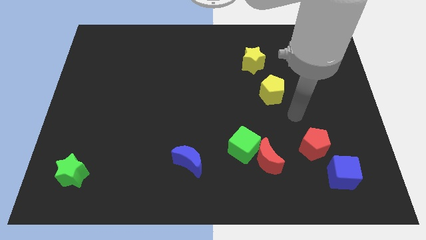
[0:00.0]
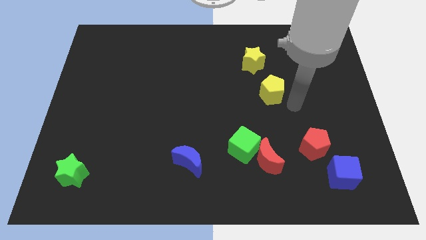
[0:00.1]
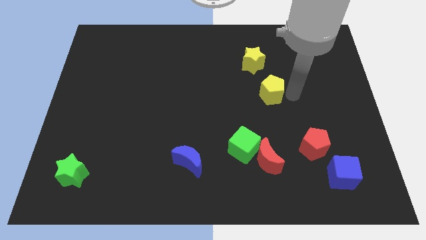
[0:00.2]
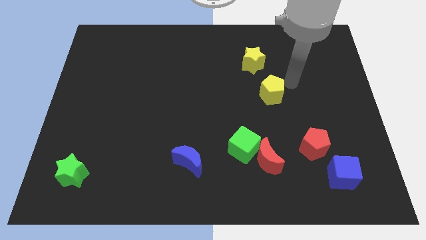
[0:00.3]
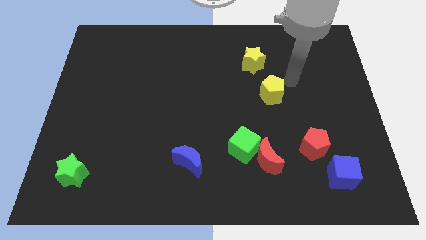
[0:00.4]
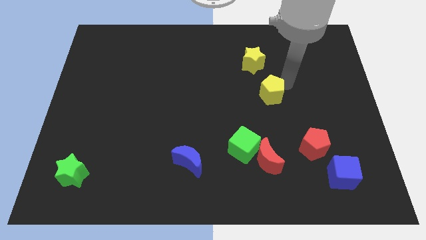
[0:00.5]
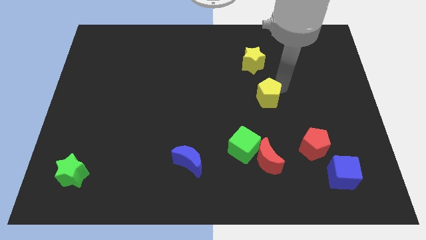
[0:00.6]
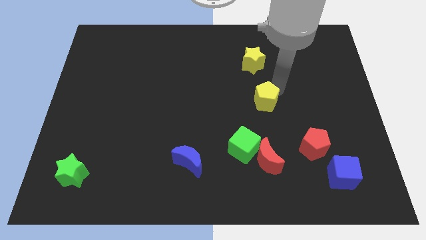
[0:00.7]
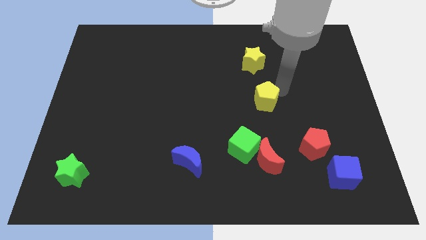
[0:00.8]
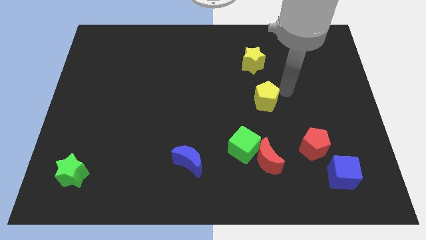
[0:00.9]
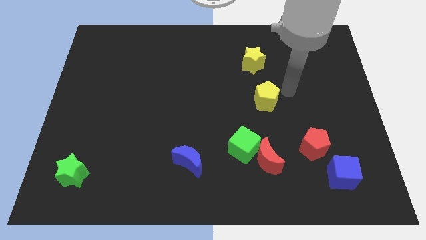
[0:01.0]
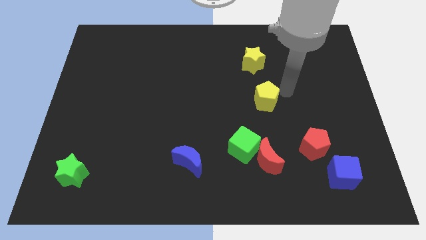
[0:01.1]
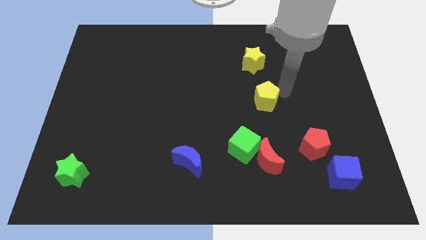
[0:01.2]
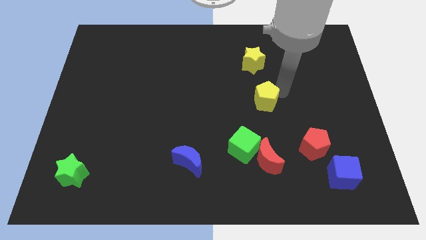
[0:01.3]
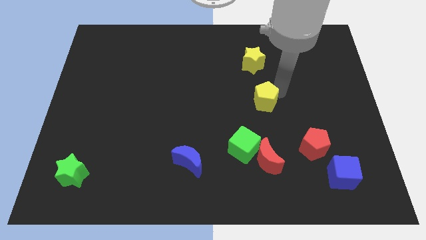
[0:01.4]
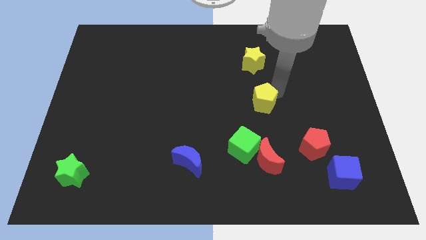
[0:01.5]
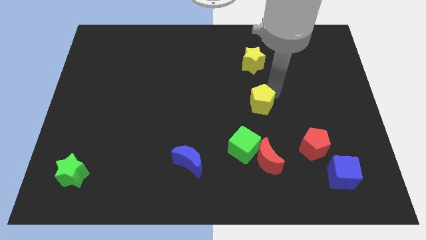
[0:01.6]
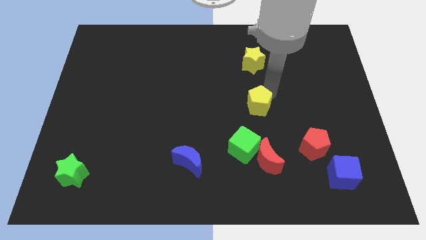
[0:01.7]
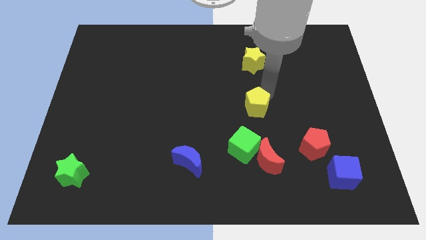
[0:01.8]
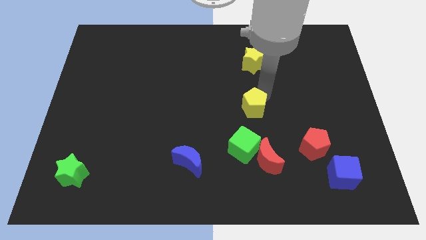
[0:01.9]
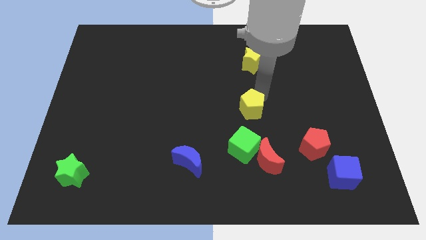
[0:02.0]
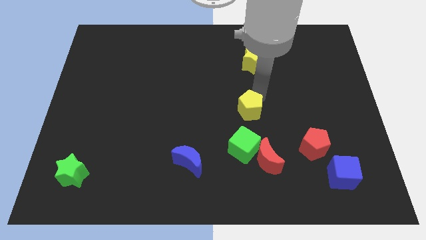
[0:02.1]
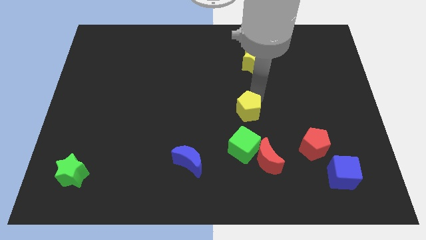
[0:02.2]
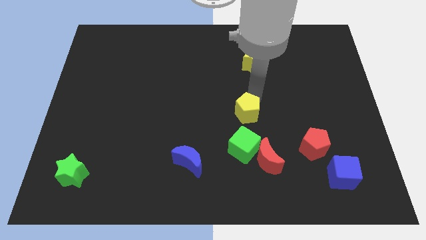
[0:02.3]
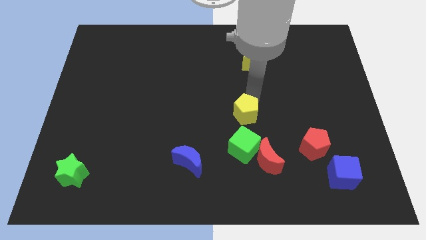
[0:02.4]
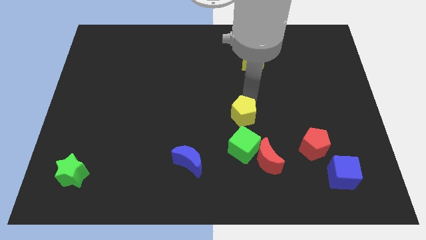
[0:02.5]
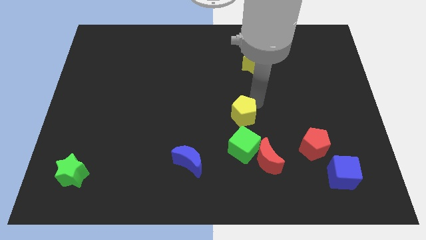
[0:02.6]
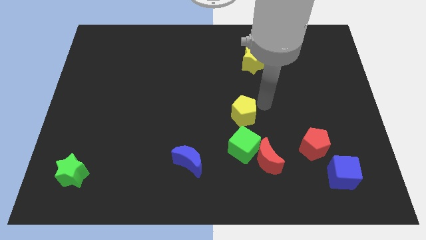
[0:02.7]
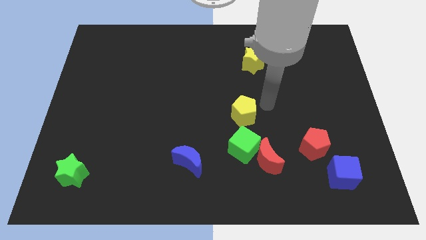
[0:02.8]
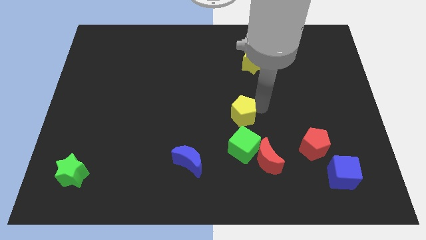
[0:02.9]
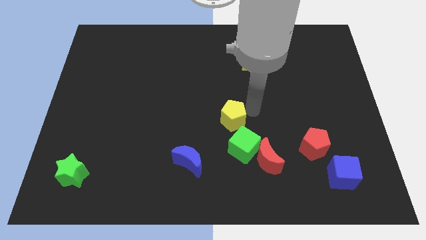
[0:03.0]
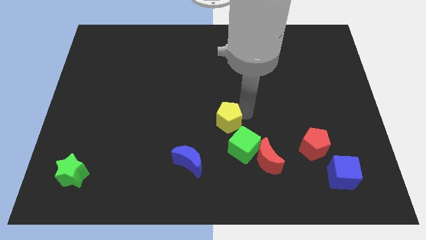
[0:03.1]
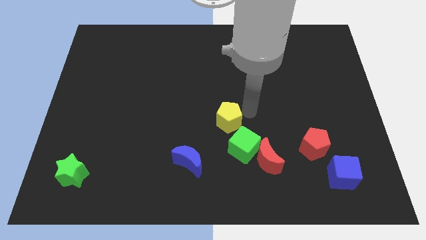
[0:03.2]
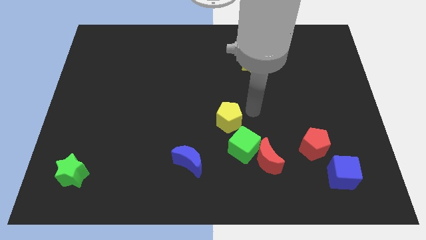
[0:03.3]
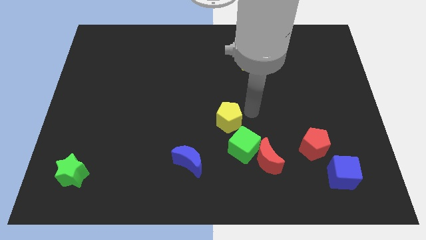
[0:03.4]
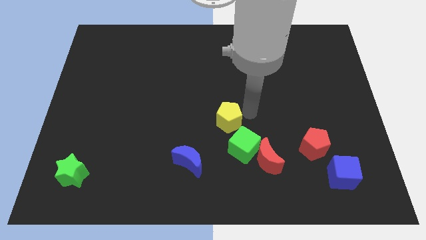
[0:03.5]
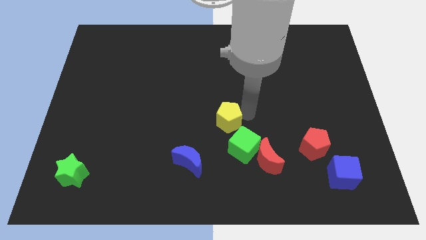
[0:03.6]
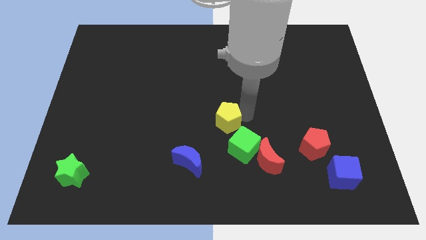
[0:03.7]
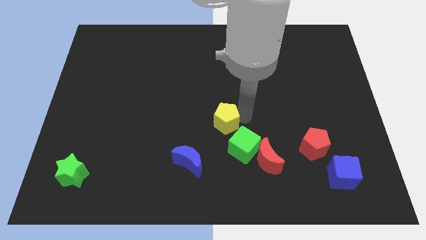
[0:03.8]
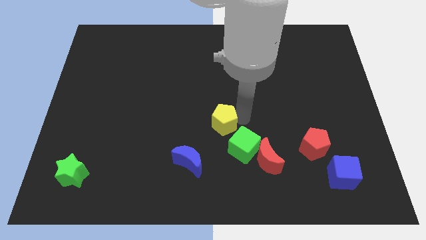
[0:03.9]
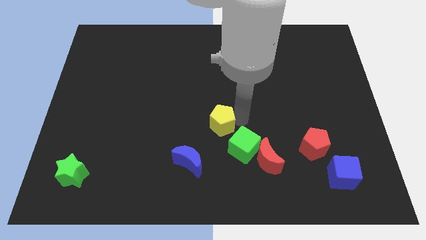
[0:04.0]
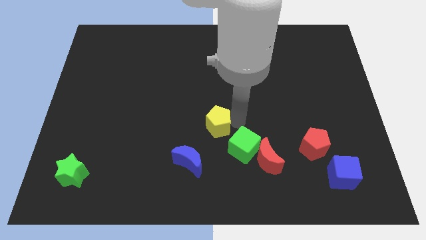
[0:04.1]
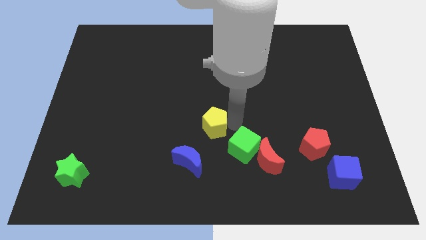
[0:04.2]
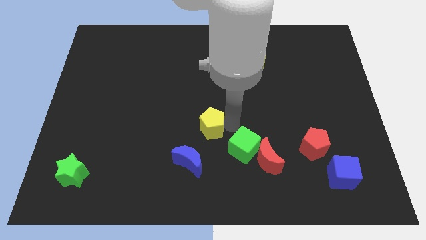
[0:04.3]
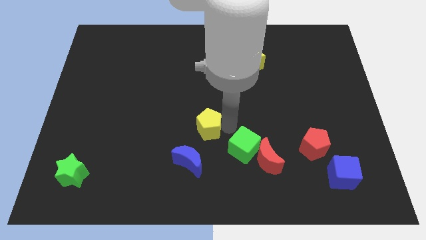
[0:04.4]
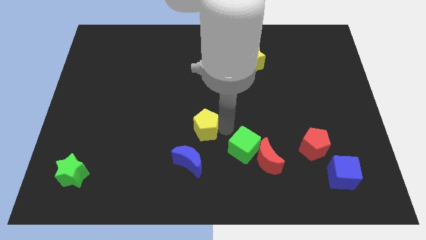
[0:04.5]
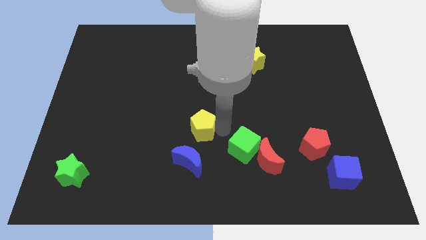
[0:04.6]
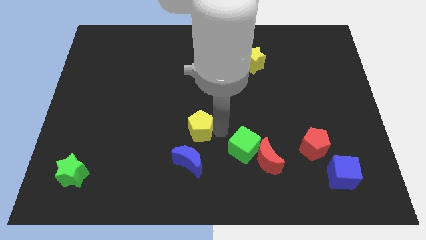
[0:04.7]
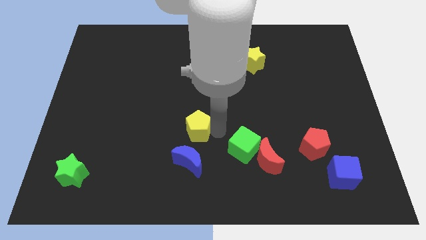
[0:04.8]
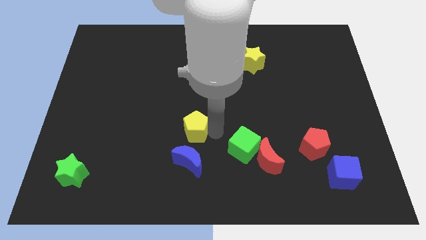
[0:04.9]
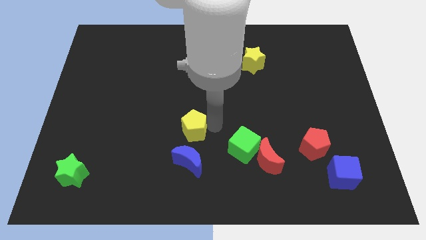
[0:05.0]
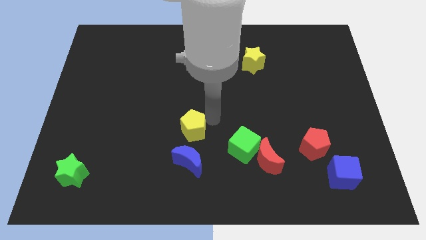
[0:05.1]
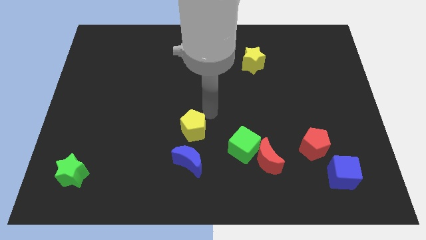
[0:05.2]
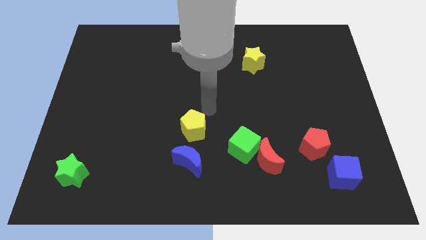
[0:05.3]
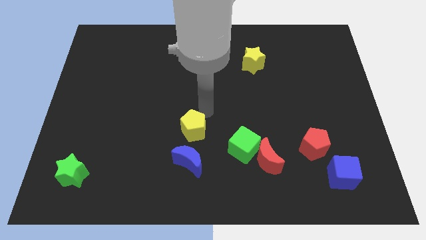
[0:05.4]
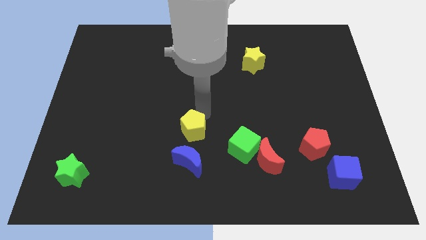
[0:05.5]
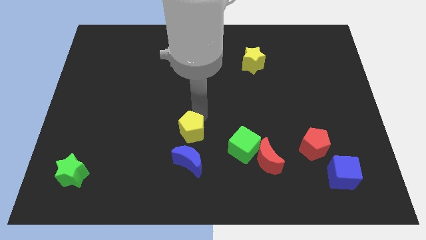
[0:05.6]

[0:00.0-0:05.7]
slide the yellow pentagon down and then left

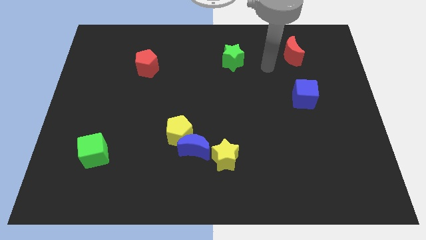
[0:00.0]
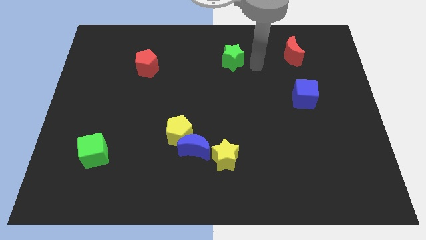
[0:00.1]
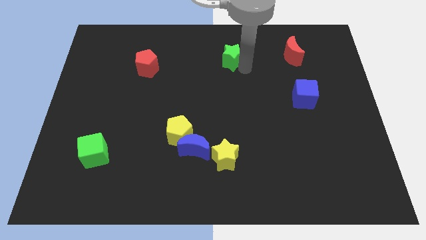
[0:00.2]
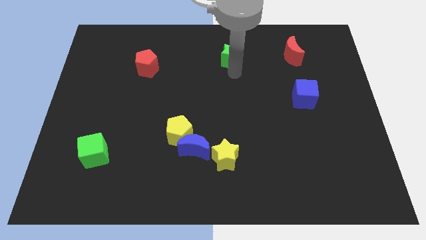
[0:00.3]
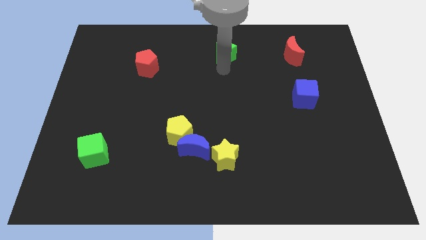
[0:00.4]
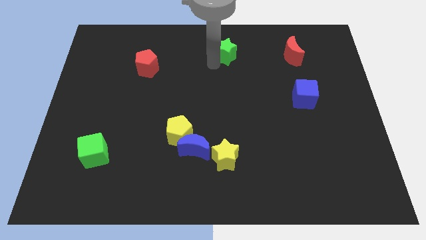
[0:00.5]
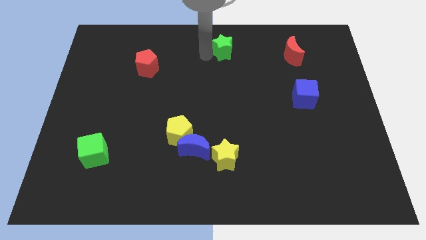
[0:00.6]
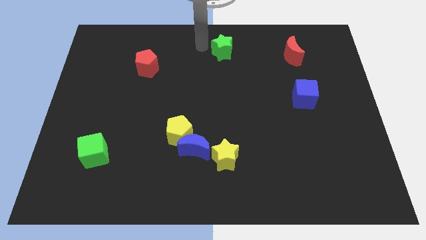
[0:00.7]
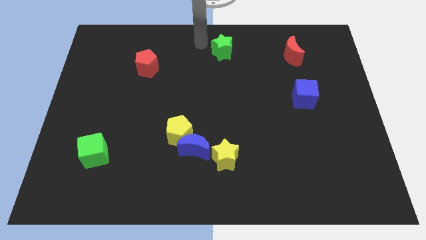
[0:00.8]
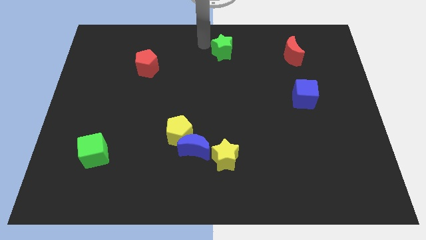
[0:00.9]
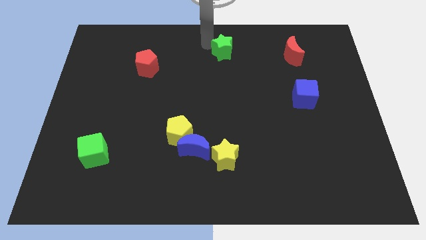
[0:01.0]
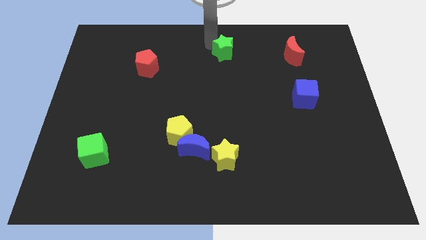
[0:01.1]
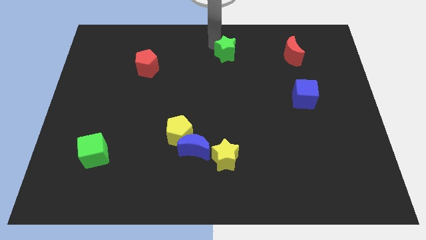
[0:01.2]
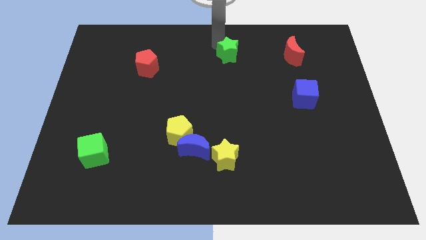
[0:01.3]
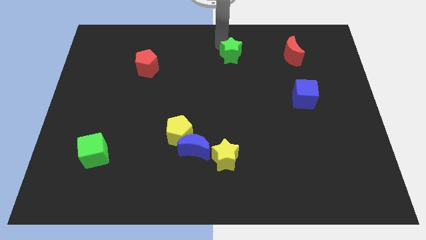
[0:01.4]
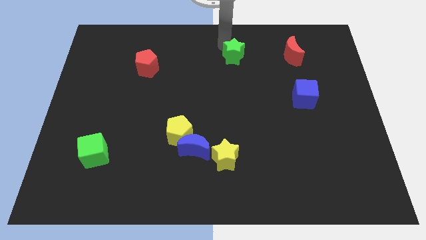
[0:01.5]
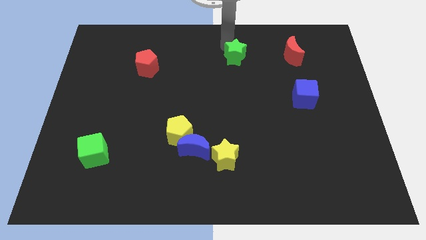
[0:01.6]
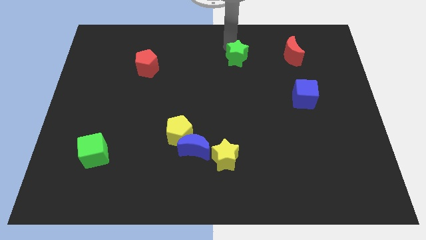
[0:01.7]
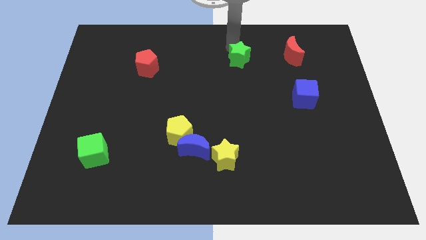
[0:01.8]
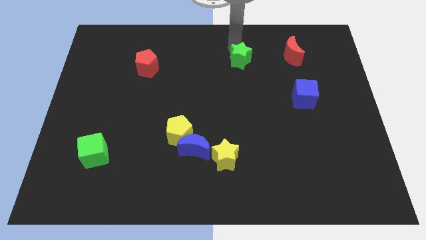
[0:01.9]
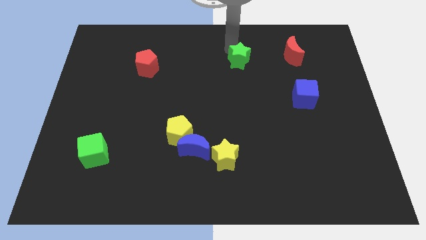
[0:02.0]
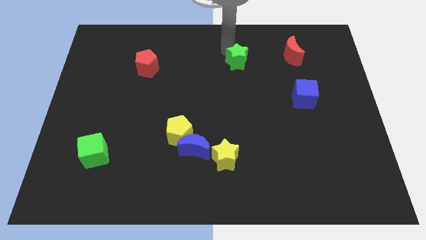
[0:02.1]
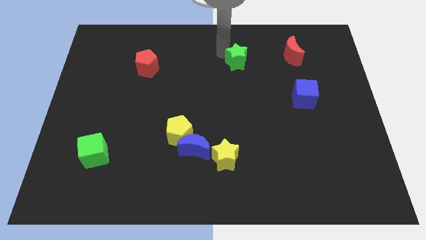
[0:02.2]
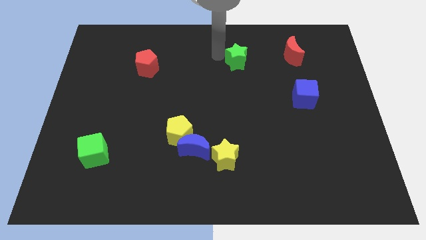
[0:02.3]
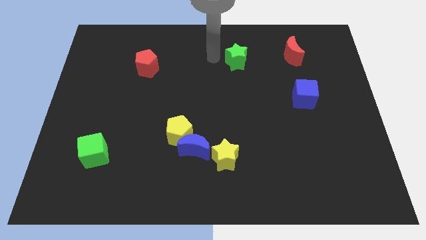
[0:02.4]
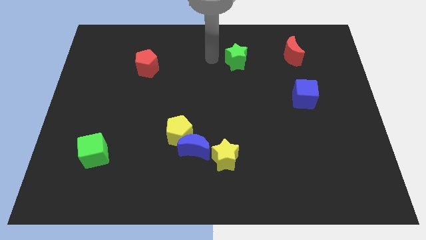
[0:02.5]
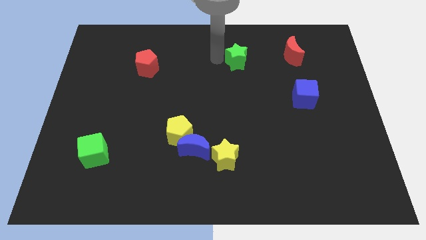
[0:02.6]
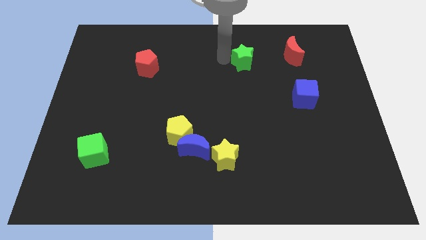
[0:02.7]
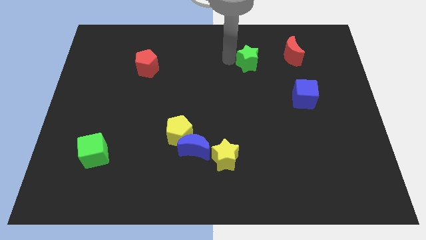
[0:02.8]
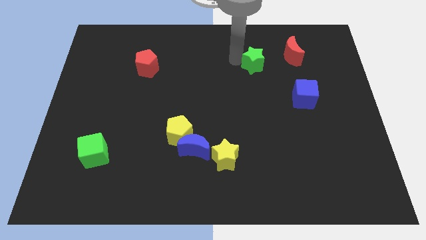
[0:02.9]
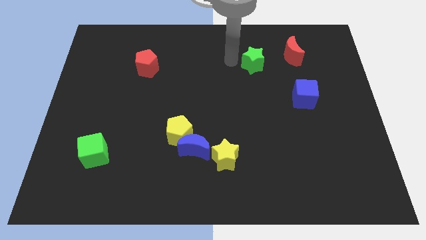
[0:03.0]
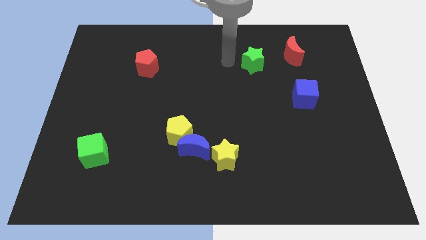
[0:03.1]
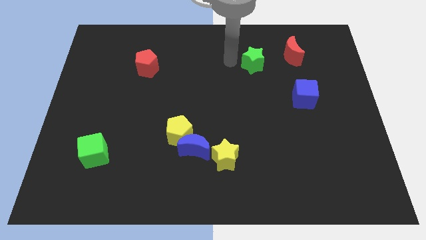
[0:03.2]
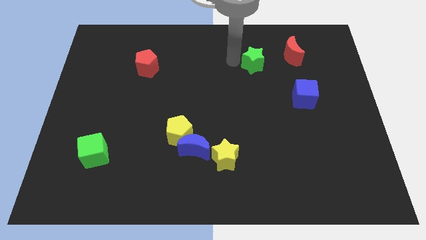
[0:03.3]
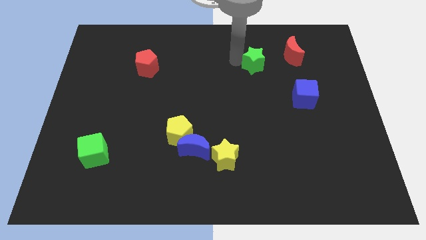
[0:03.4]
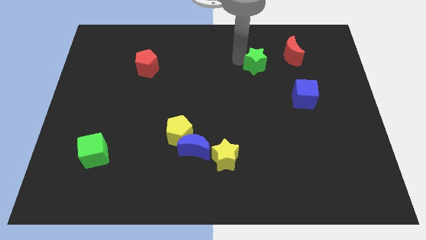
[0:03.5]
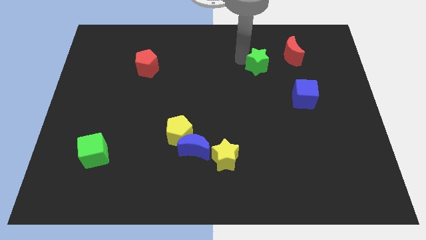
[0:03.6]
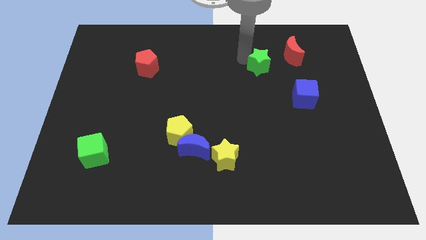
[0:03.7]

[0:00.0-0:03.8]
push the green star right a bit
